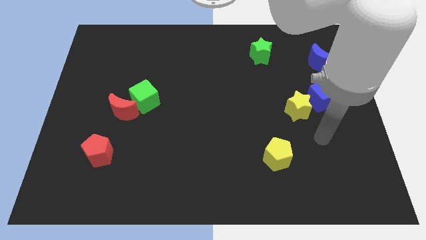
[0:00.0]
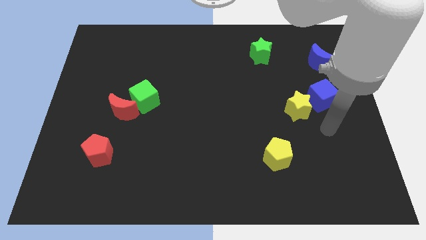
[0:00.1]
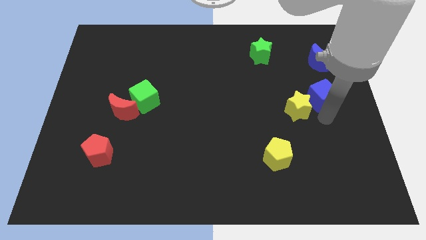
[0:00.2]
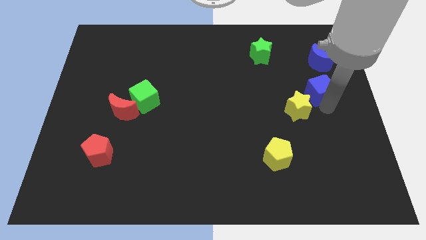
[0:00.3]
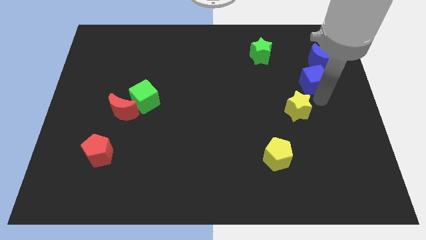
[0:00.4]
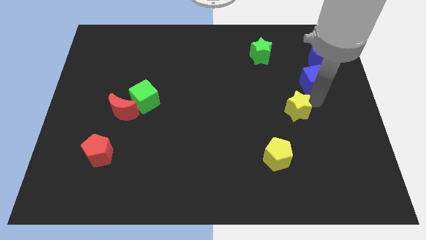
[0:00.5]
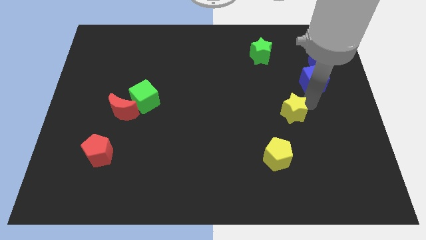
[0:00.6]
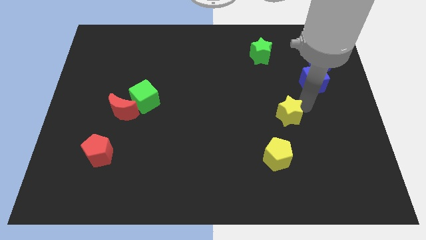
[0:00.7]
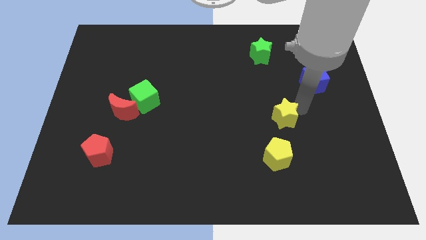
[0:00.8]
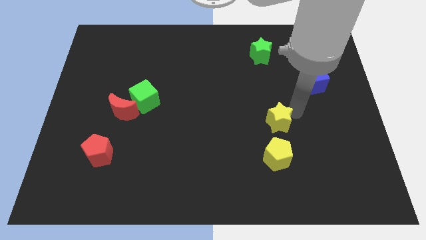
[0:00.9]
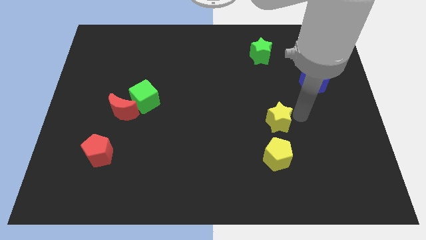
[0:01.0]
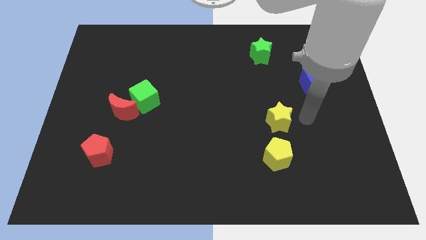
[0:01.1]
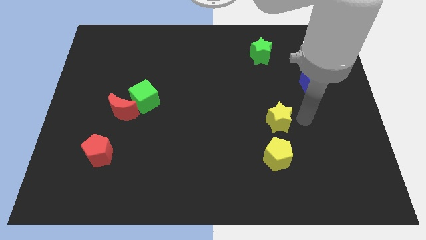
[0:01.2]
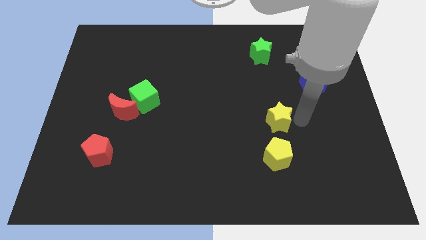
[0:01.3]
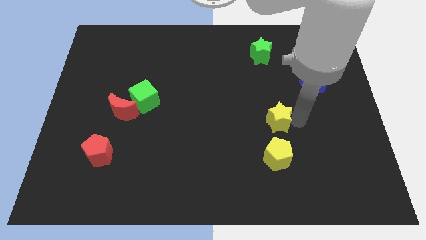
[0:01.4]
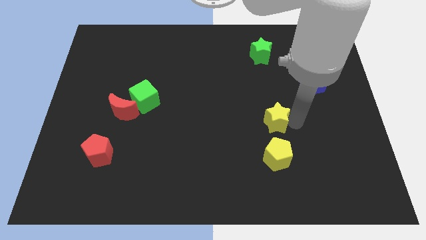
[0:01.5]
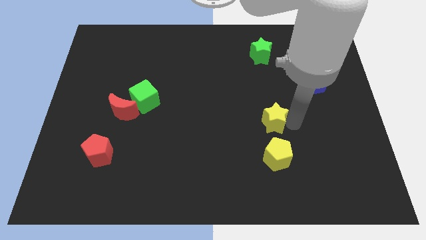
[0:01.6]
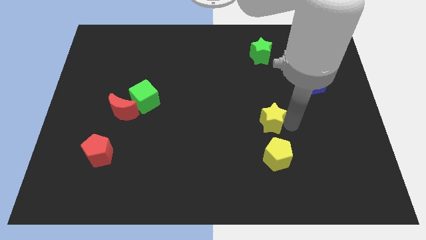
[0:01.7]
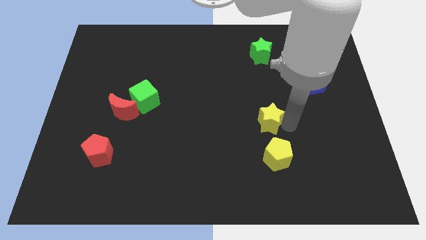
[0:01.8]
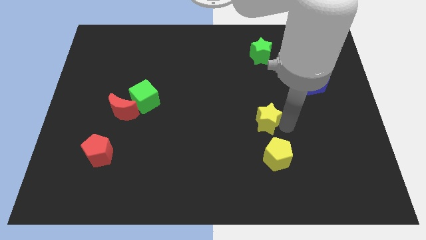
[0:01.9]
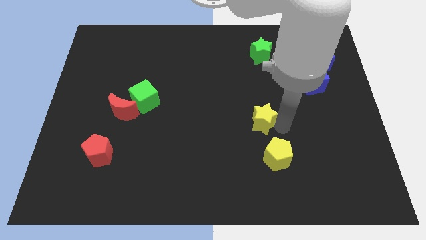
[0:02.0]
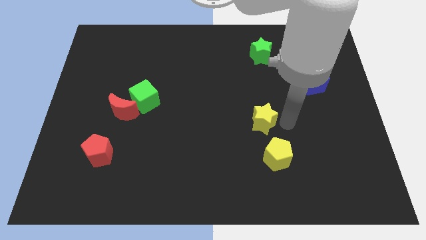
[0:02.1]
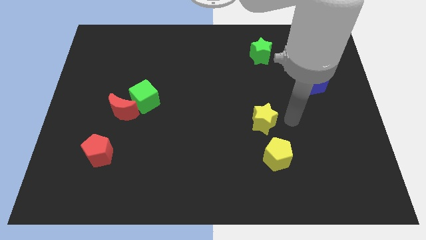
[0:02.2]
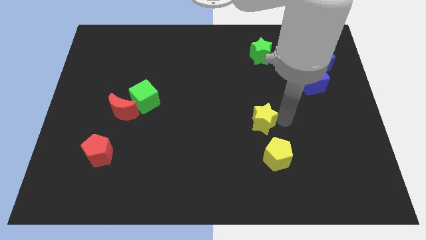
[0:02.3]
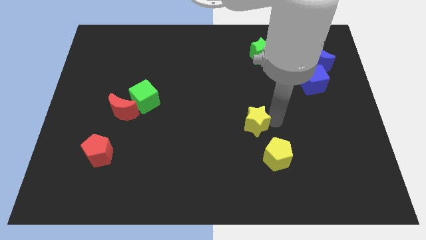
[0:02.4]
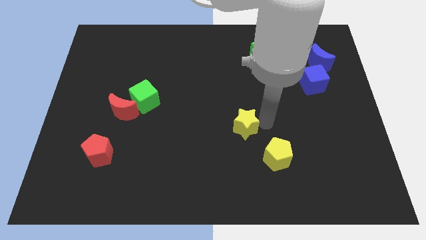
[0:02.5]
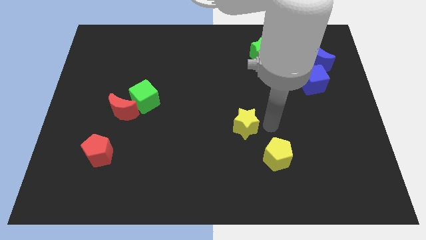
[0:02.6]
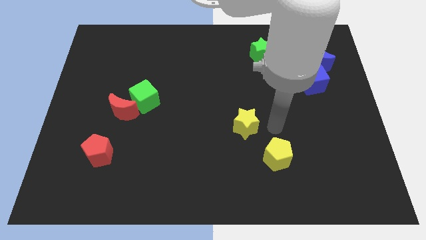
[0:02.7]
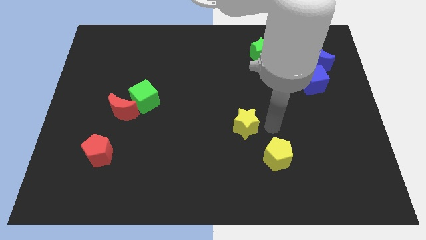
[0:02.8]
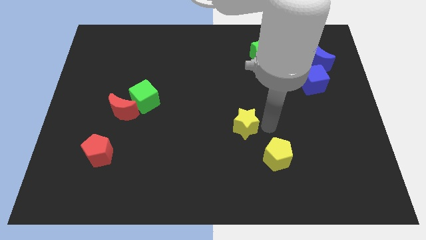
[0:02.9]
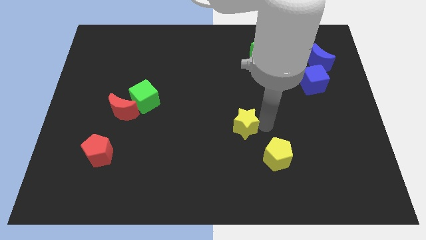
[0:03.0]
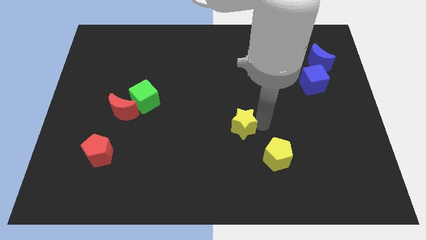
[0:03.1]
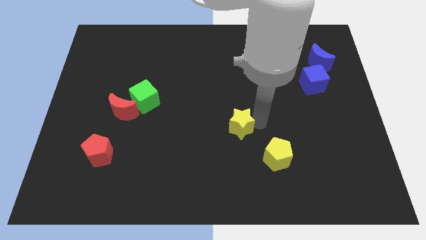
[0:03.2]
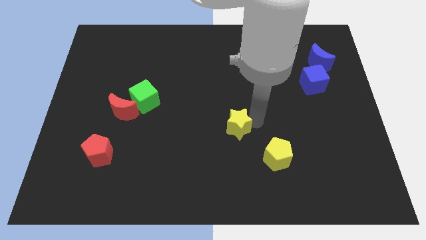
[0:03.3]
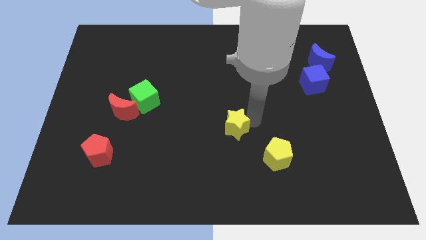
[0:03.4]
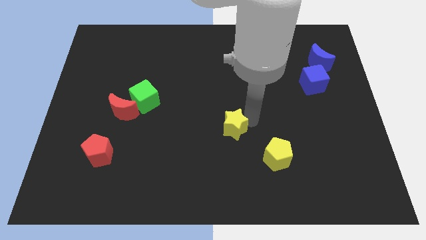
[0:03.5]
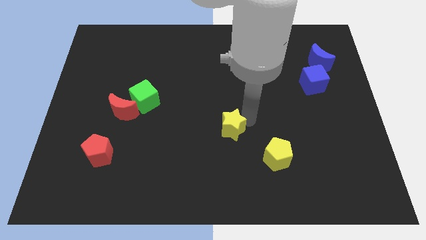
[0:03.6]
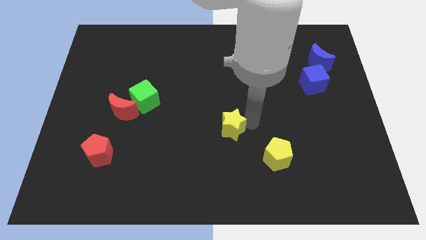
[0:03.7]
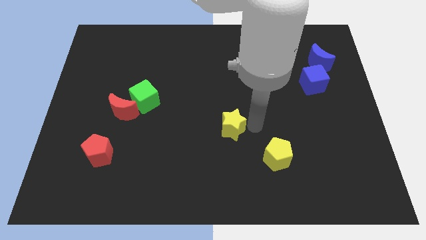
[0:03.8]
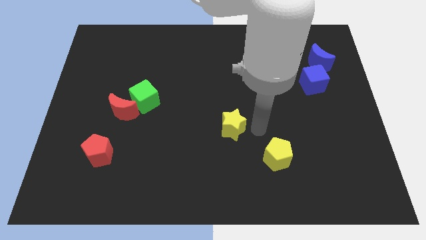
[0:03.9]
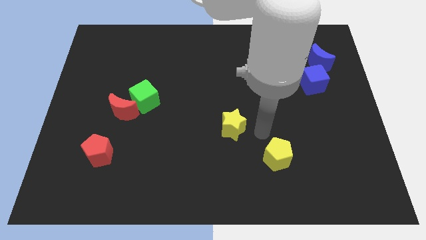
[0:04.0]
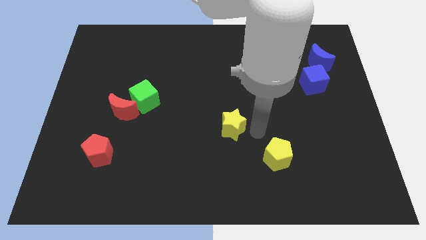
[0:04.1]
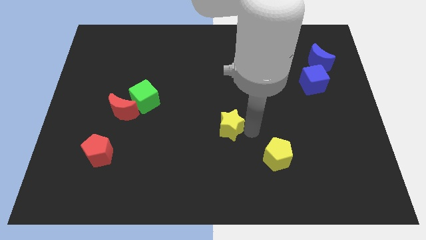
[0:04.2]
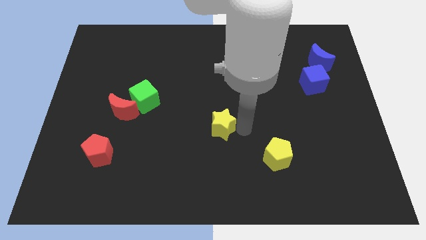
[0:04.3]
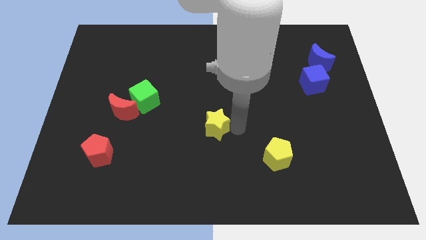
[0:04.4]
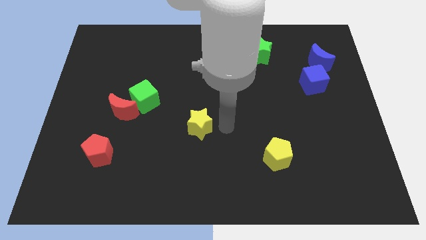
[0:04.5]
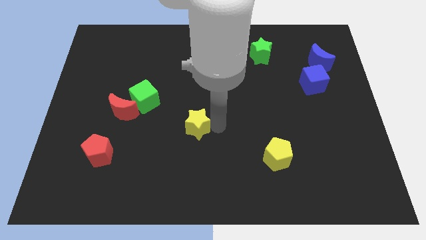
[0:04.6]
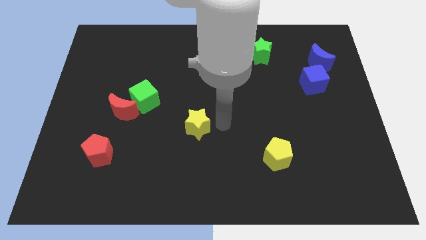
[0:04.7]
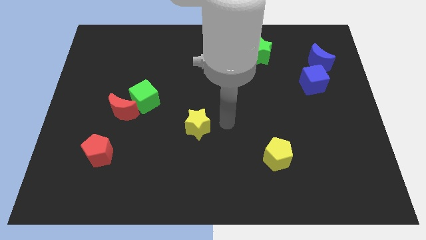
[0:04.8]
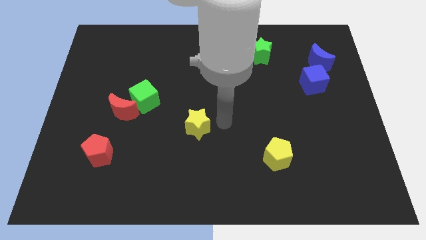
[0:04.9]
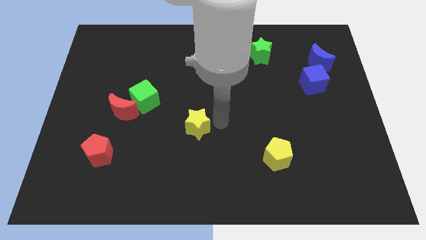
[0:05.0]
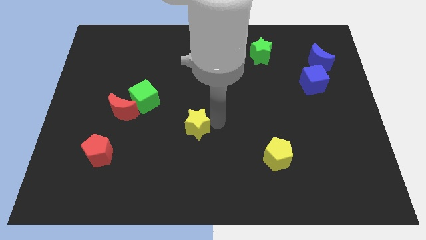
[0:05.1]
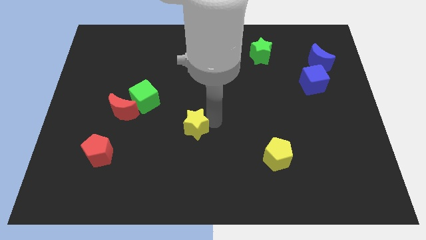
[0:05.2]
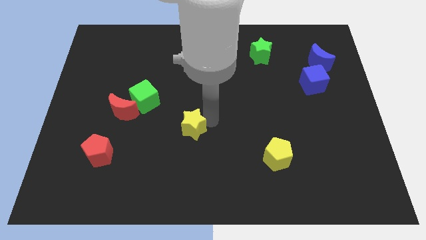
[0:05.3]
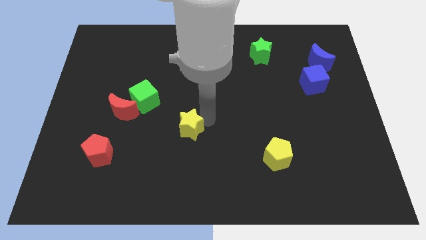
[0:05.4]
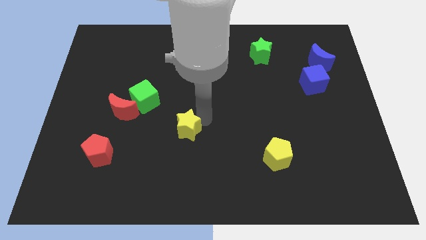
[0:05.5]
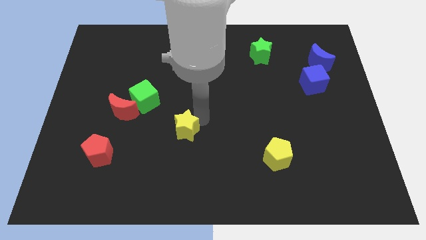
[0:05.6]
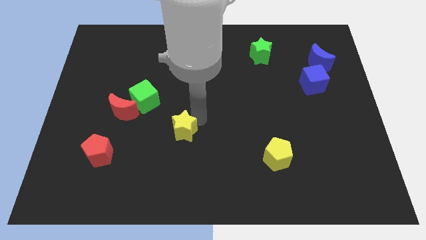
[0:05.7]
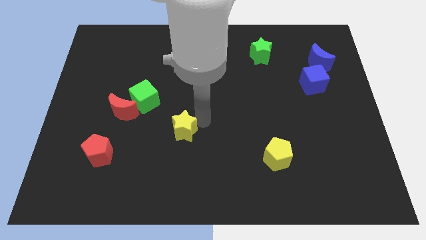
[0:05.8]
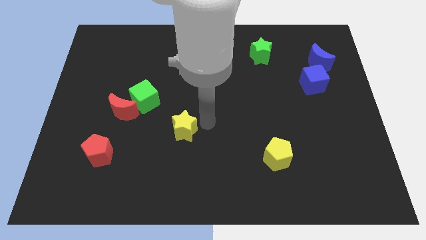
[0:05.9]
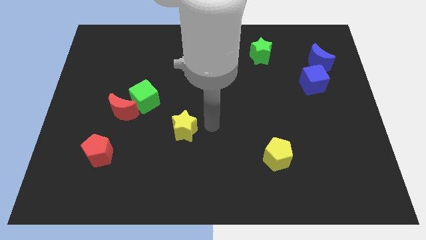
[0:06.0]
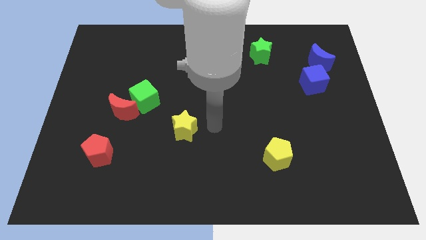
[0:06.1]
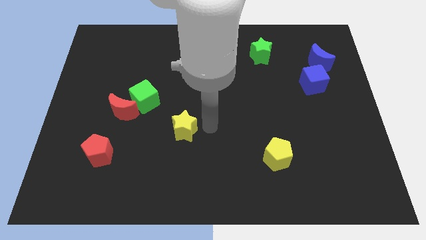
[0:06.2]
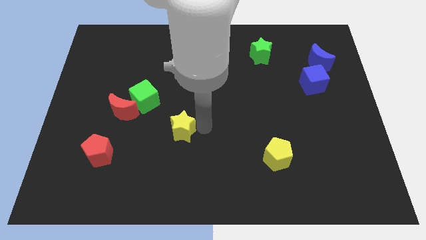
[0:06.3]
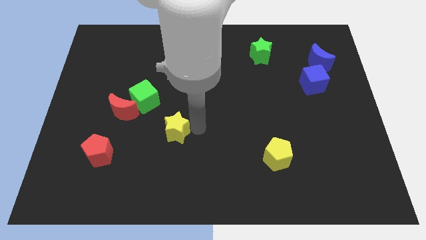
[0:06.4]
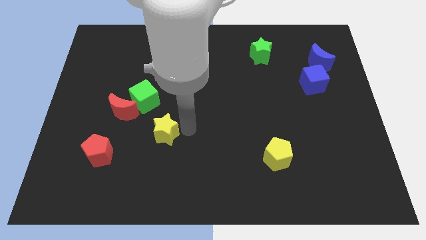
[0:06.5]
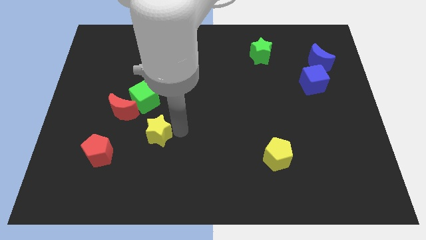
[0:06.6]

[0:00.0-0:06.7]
slide the yellow star to the bottom of the green cube

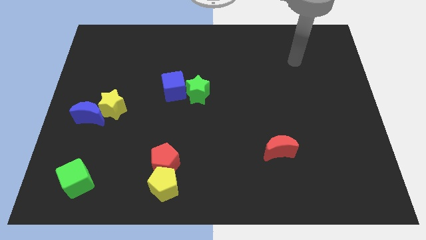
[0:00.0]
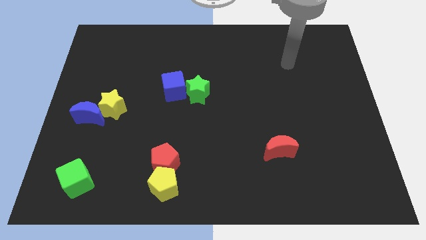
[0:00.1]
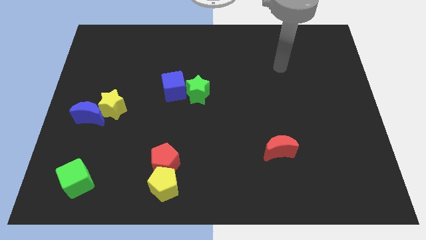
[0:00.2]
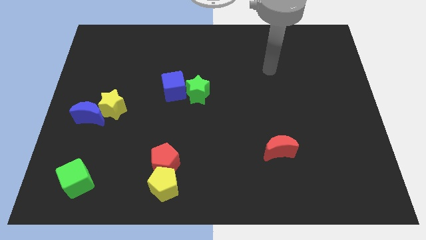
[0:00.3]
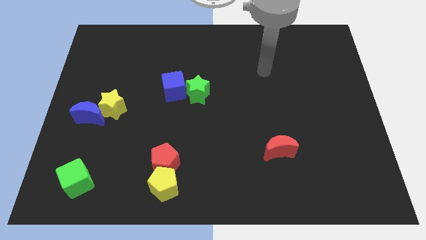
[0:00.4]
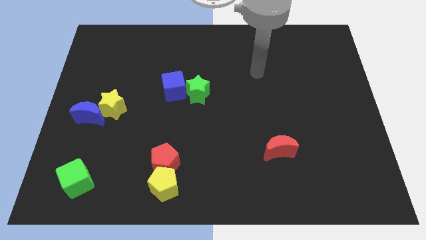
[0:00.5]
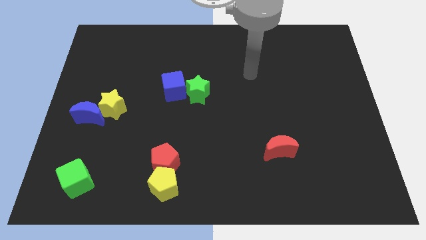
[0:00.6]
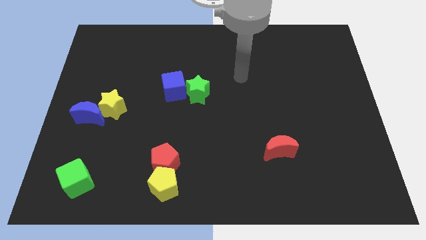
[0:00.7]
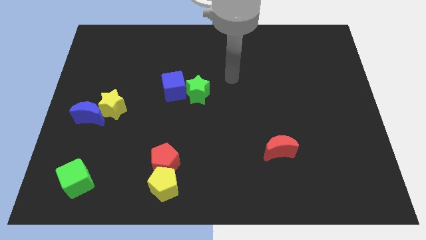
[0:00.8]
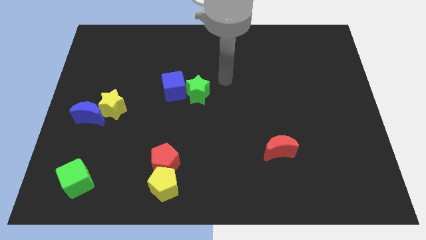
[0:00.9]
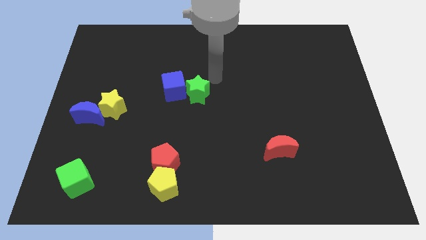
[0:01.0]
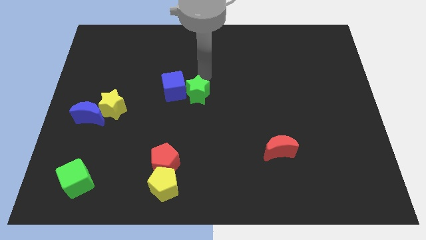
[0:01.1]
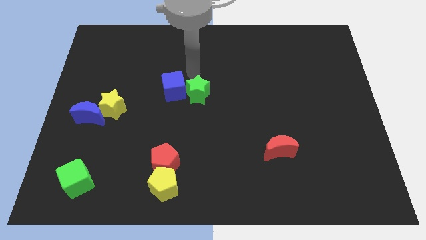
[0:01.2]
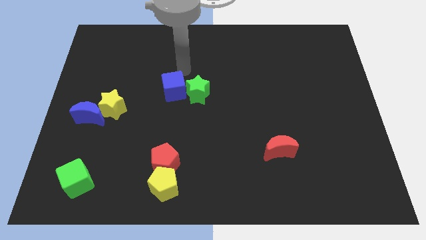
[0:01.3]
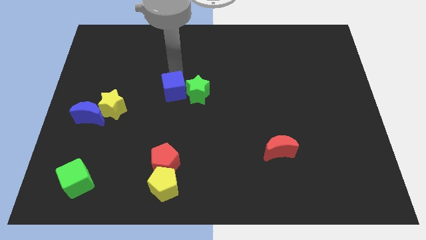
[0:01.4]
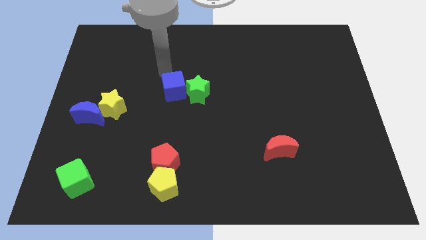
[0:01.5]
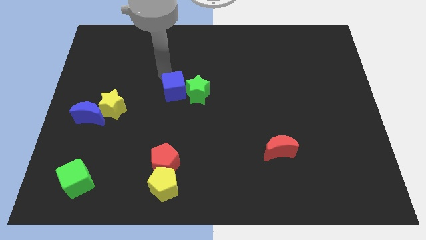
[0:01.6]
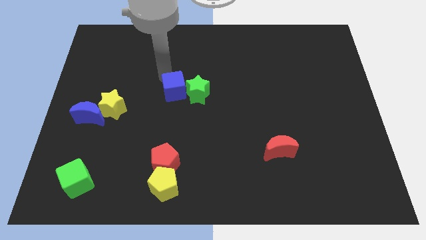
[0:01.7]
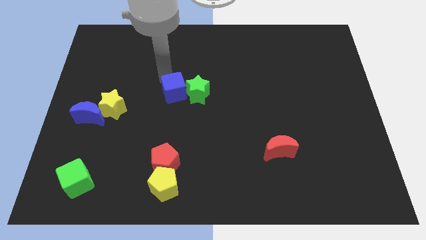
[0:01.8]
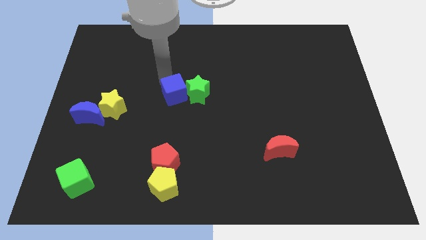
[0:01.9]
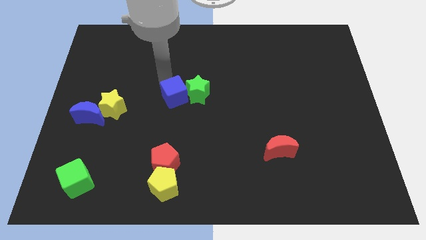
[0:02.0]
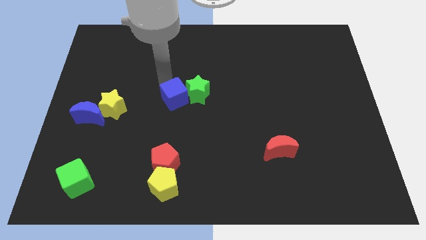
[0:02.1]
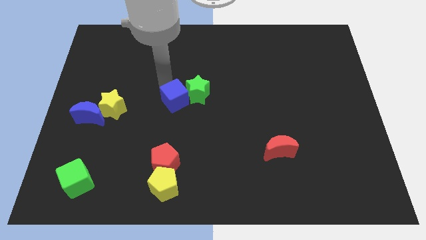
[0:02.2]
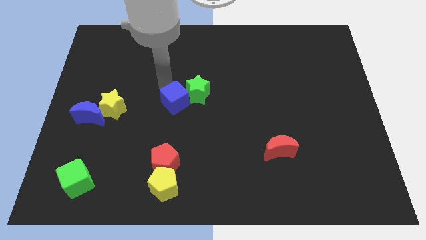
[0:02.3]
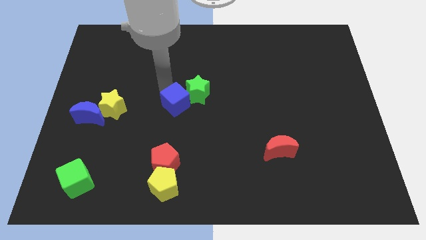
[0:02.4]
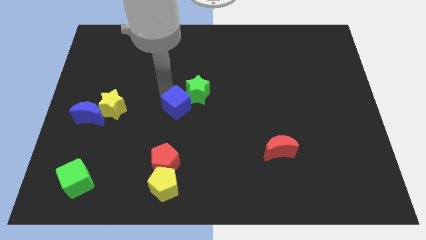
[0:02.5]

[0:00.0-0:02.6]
slide the blue cube to the bottom side of the green star
